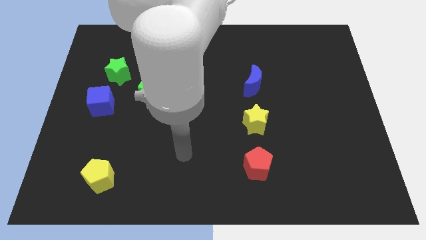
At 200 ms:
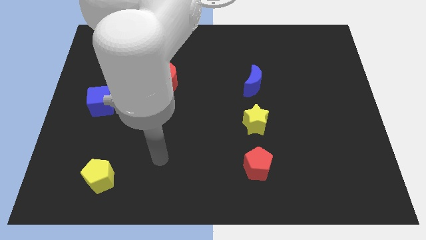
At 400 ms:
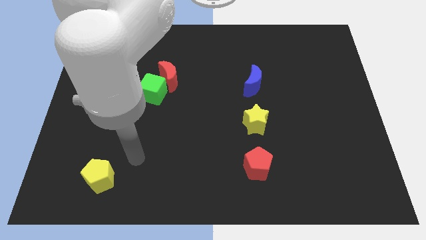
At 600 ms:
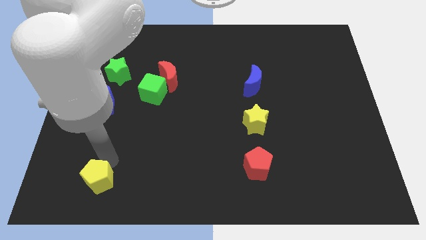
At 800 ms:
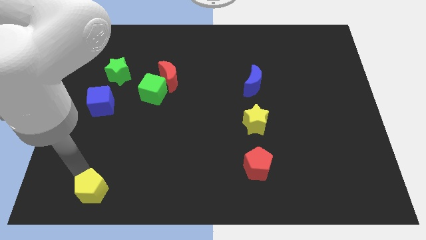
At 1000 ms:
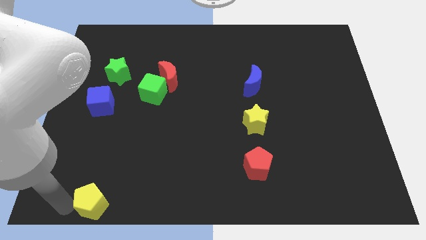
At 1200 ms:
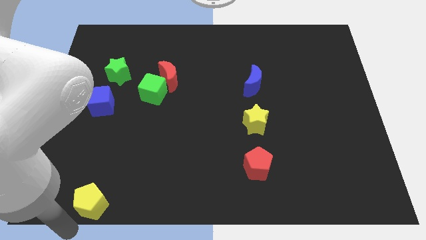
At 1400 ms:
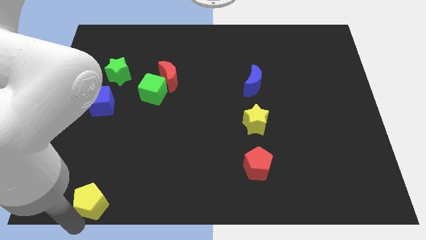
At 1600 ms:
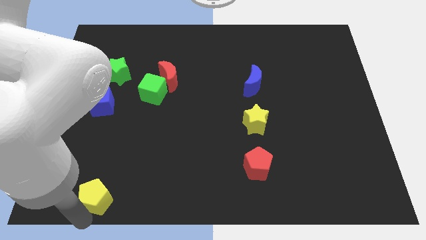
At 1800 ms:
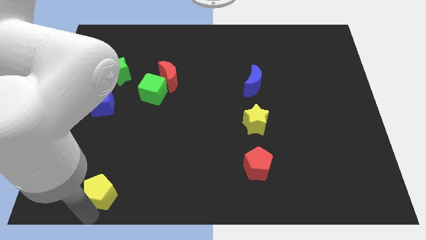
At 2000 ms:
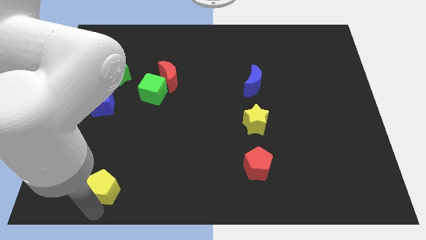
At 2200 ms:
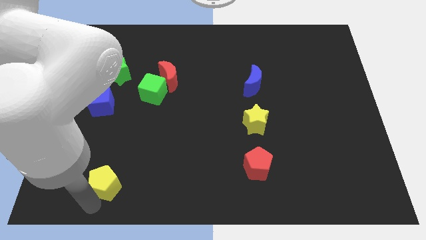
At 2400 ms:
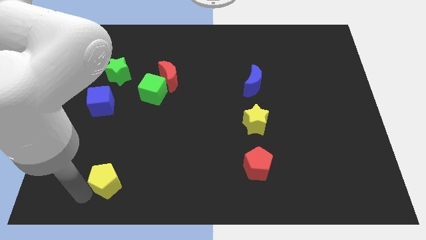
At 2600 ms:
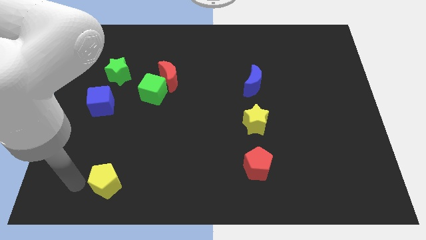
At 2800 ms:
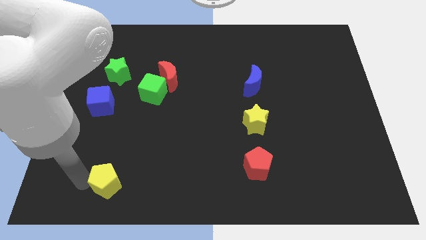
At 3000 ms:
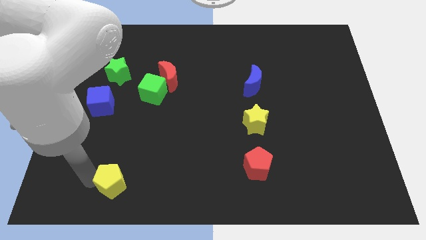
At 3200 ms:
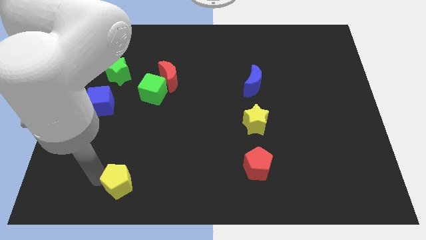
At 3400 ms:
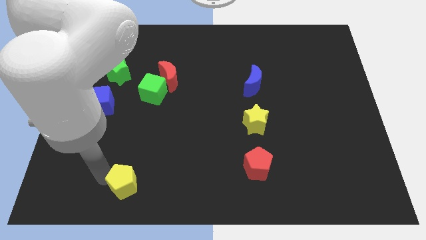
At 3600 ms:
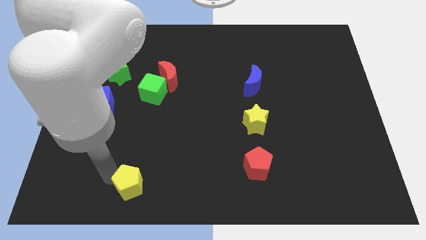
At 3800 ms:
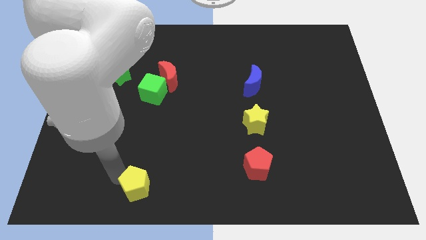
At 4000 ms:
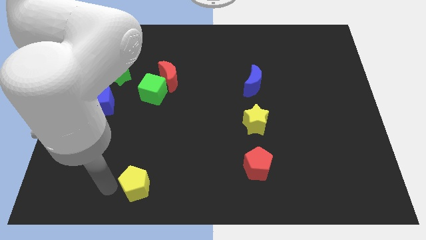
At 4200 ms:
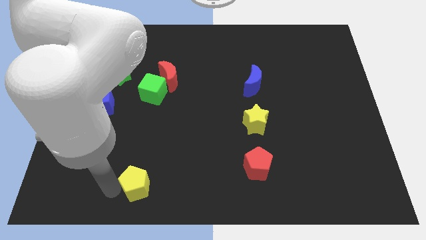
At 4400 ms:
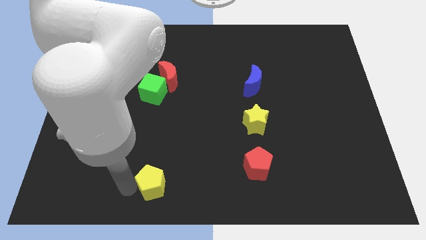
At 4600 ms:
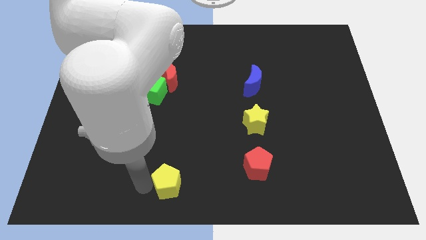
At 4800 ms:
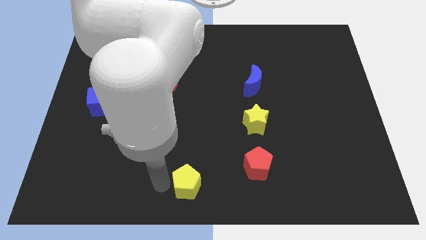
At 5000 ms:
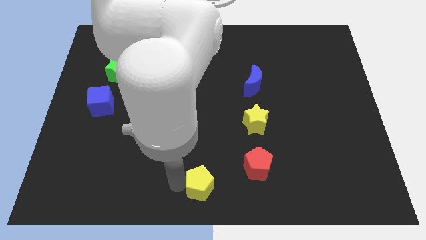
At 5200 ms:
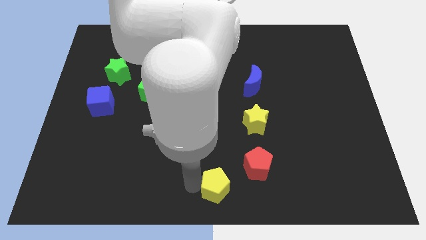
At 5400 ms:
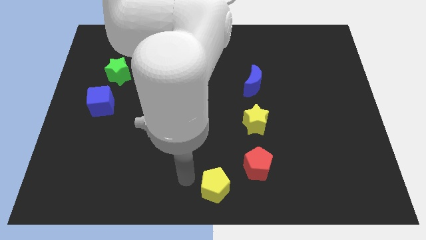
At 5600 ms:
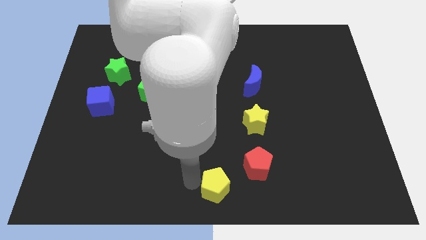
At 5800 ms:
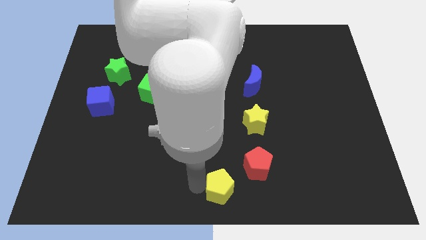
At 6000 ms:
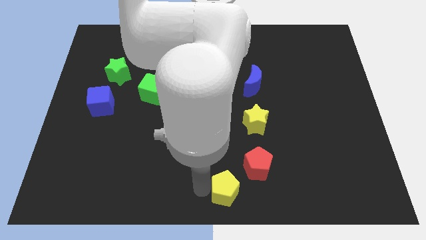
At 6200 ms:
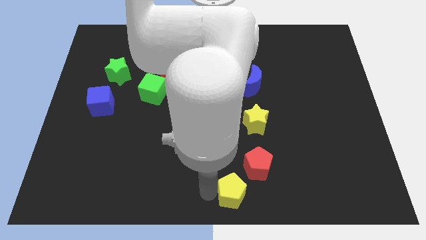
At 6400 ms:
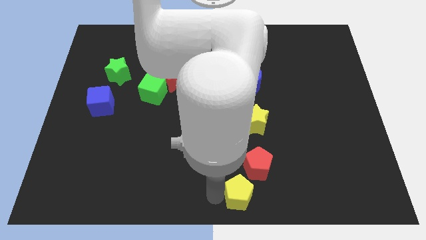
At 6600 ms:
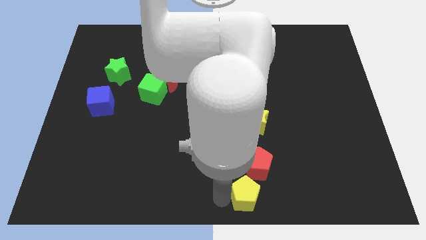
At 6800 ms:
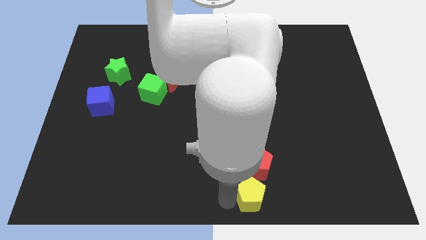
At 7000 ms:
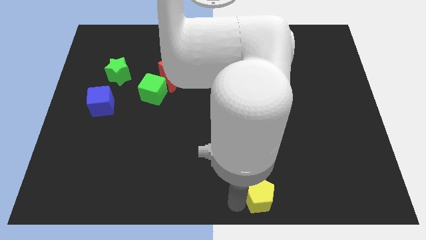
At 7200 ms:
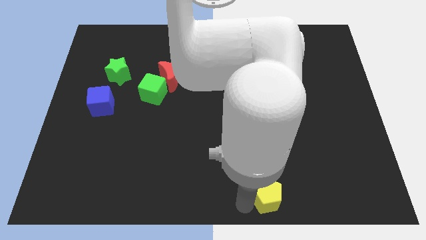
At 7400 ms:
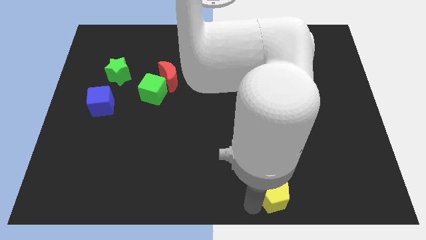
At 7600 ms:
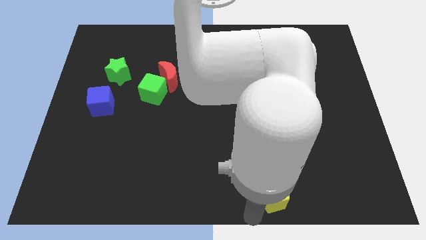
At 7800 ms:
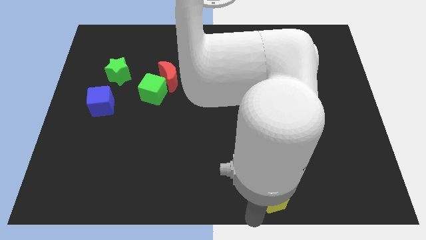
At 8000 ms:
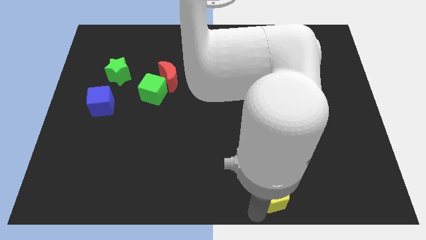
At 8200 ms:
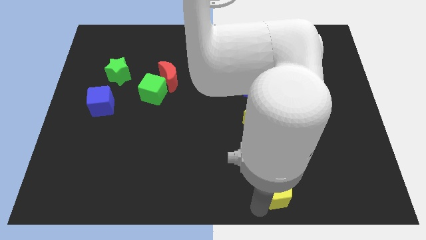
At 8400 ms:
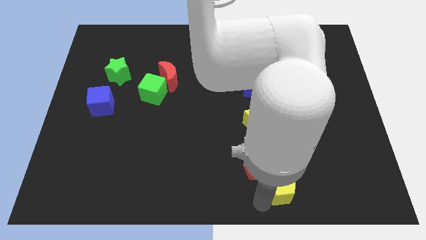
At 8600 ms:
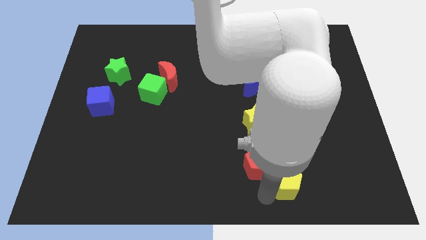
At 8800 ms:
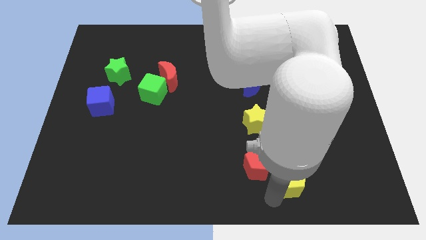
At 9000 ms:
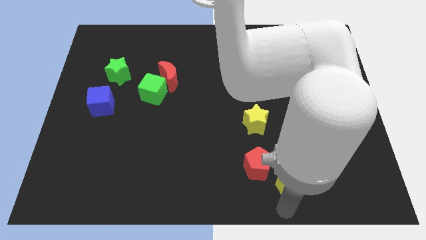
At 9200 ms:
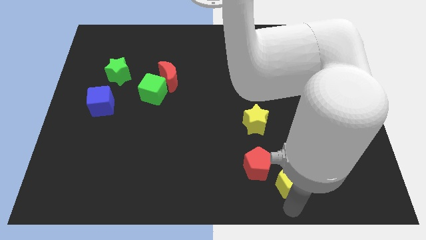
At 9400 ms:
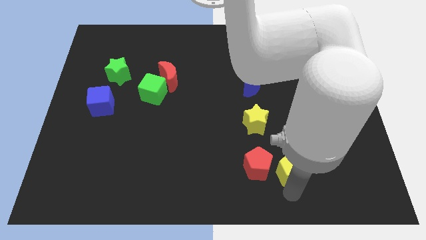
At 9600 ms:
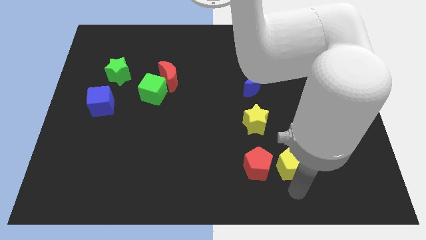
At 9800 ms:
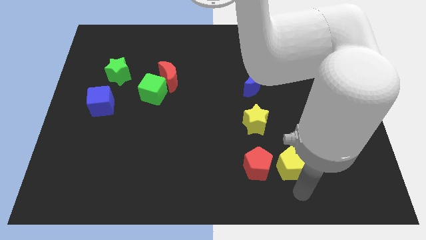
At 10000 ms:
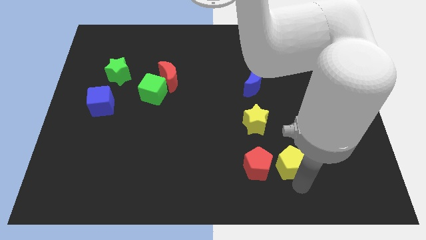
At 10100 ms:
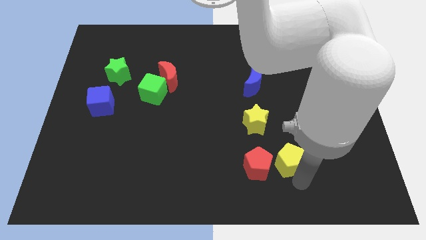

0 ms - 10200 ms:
move the yellow pentagon to the bottom right of the yellow star

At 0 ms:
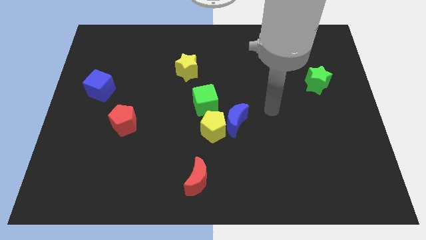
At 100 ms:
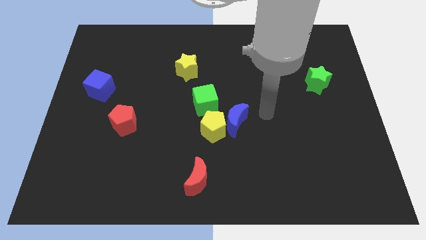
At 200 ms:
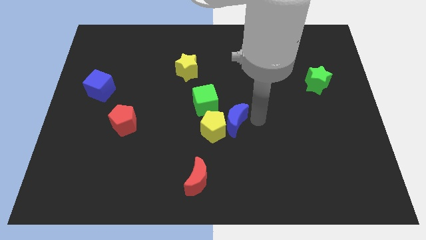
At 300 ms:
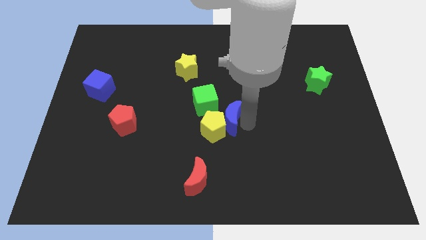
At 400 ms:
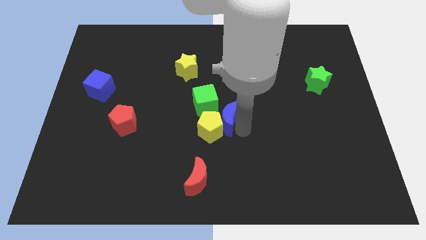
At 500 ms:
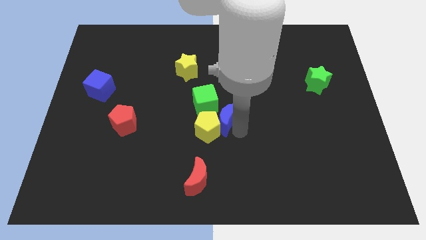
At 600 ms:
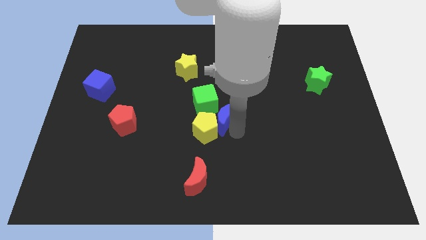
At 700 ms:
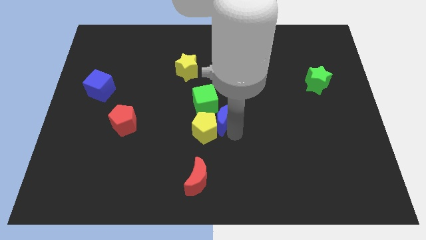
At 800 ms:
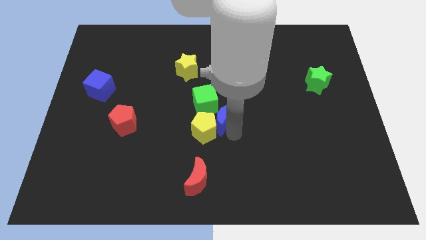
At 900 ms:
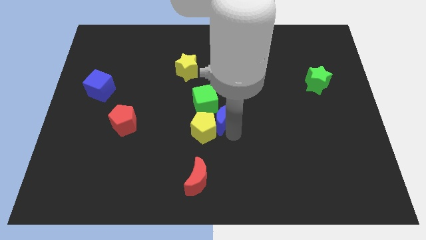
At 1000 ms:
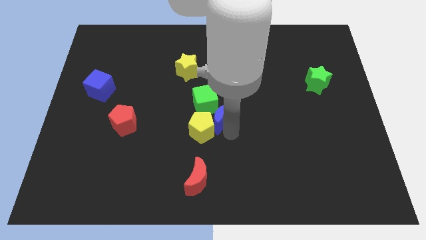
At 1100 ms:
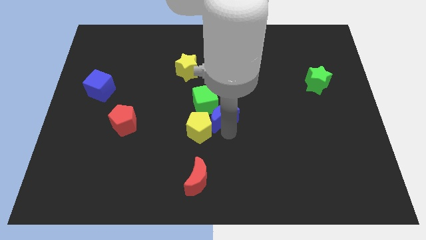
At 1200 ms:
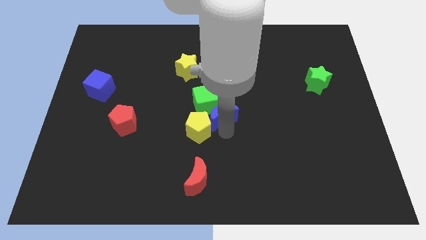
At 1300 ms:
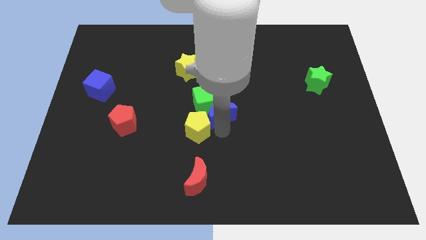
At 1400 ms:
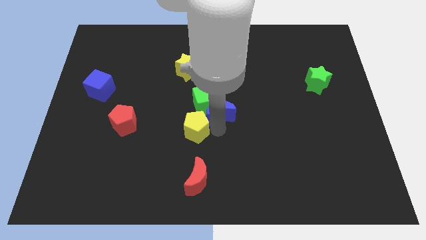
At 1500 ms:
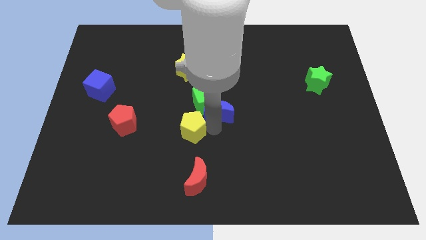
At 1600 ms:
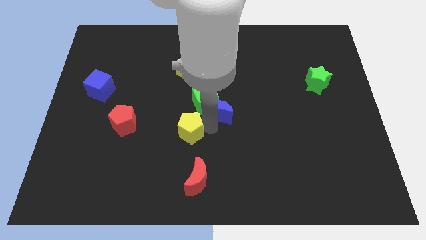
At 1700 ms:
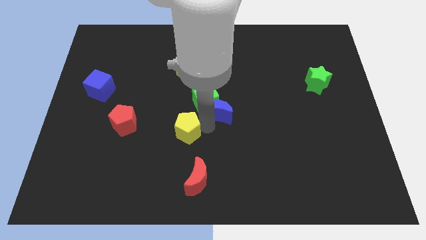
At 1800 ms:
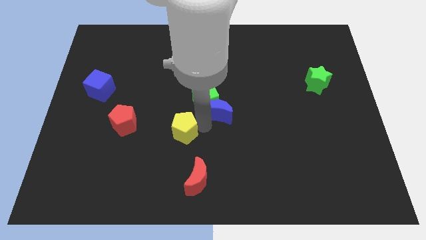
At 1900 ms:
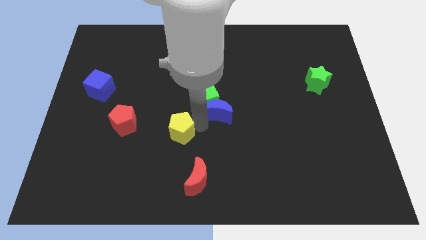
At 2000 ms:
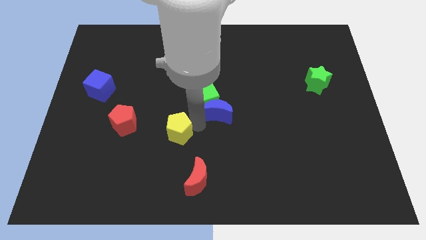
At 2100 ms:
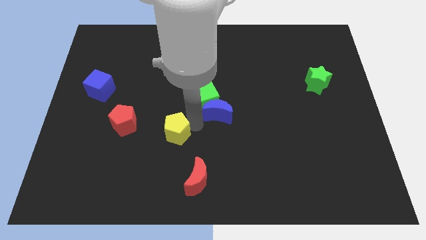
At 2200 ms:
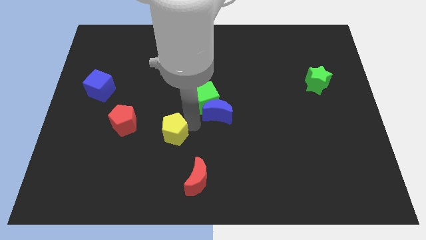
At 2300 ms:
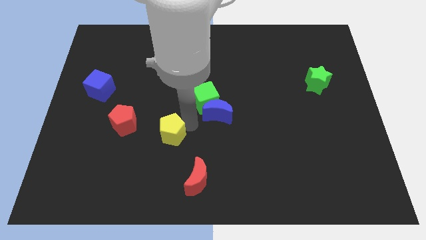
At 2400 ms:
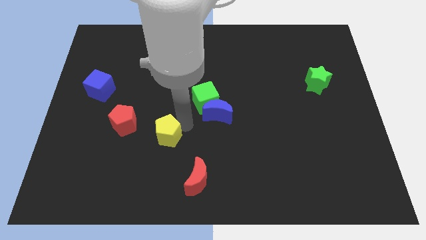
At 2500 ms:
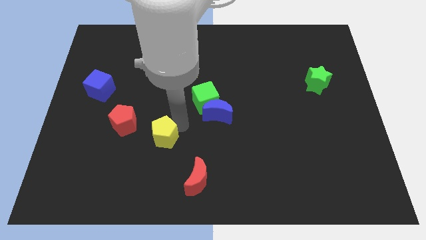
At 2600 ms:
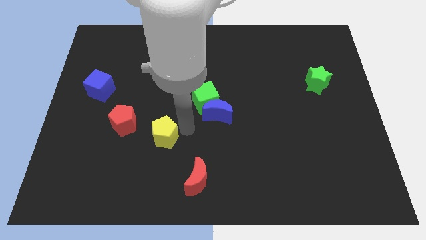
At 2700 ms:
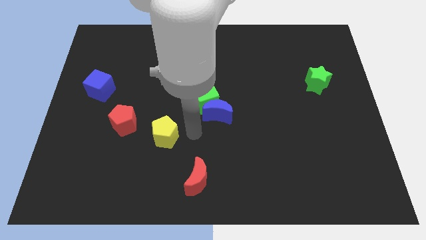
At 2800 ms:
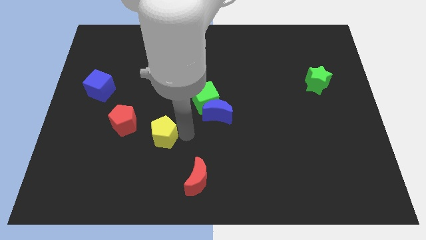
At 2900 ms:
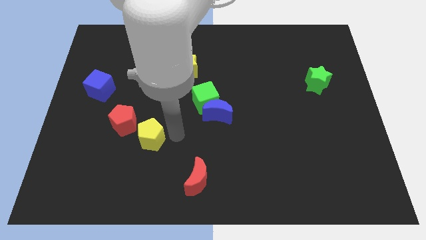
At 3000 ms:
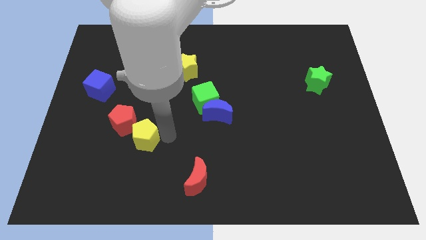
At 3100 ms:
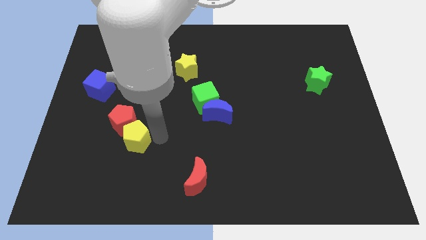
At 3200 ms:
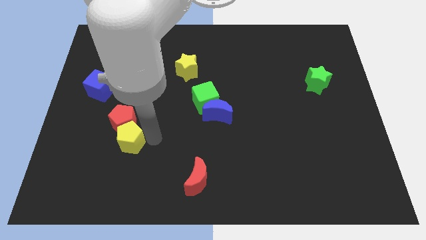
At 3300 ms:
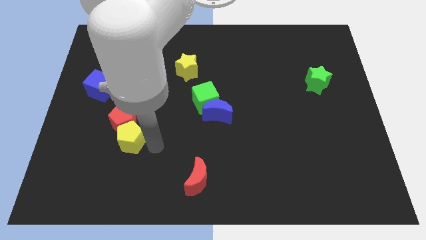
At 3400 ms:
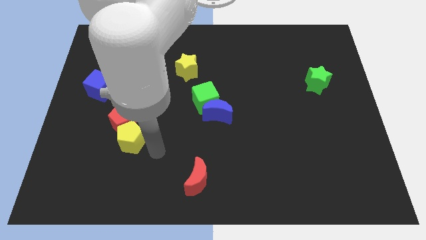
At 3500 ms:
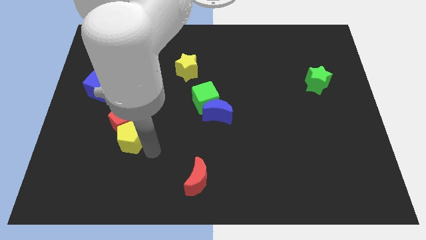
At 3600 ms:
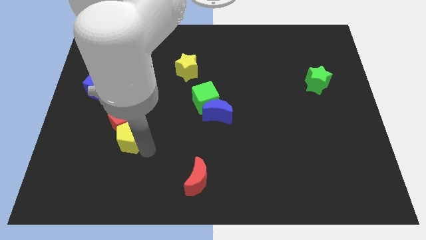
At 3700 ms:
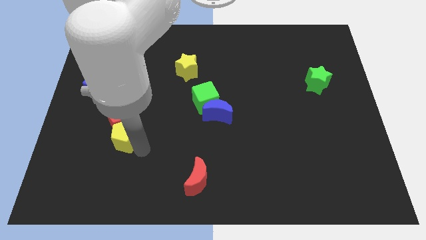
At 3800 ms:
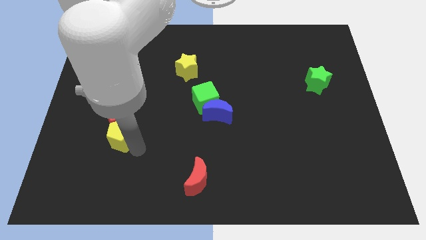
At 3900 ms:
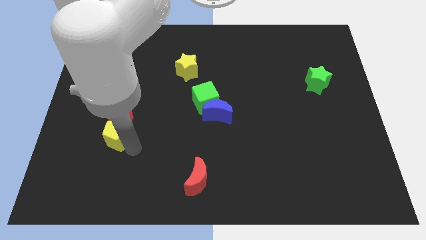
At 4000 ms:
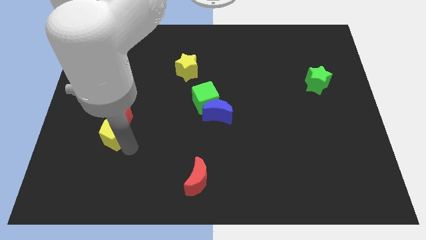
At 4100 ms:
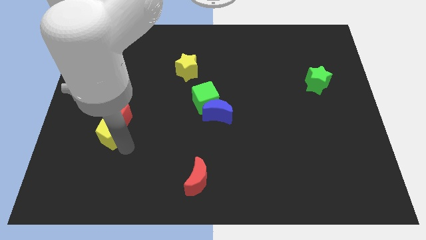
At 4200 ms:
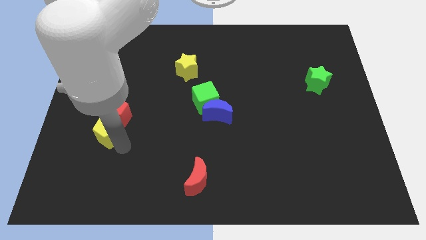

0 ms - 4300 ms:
move the yellow pentagon to the bottom side of the blue cube
